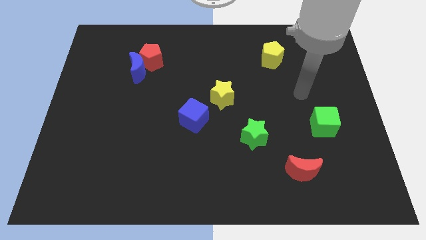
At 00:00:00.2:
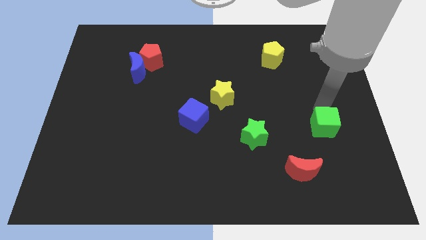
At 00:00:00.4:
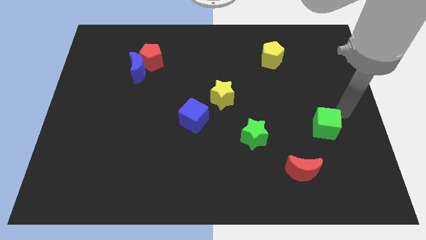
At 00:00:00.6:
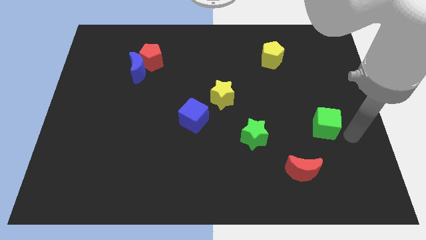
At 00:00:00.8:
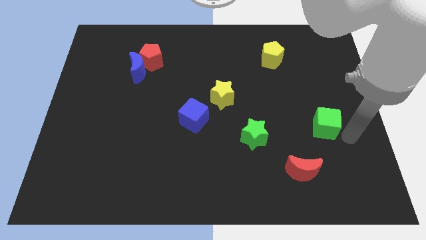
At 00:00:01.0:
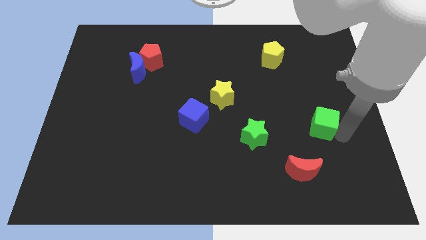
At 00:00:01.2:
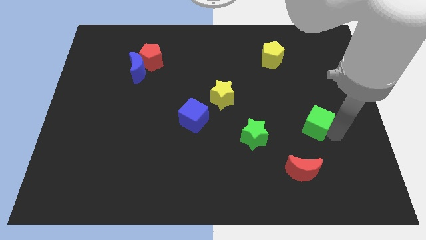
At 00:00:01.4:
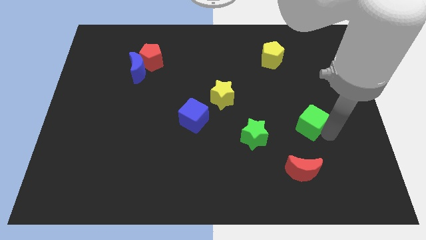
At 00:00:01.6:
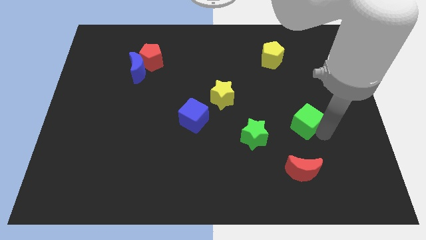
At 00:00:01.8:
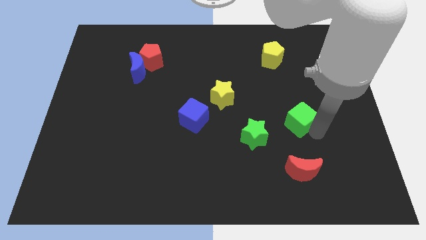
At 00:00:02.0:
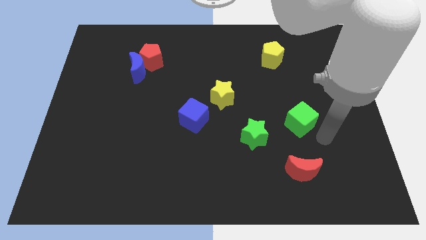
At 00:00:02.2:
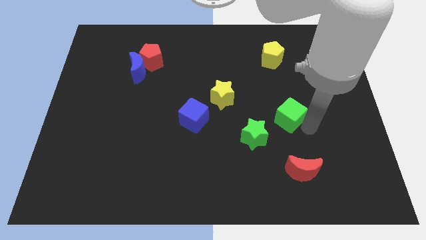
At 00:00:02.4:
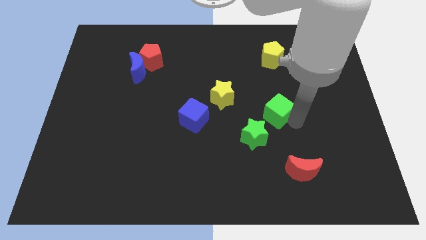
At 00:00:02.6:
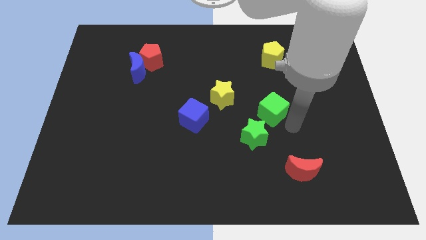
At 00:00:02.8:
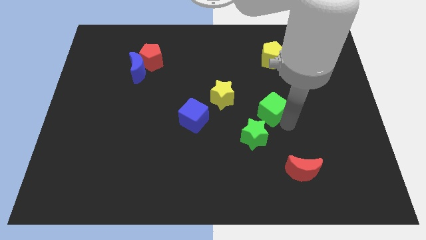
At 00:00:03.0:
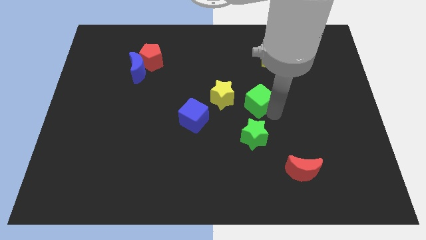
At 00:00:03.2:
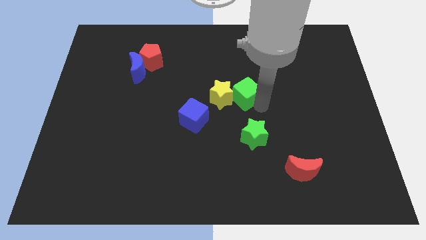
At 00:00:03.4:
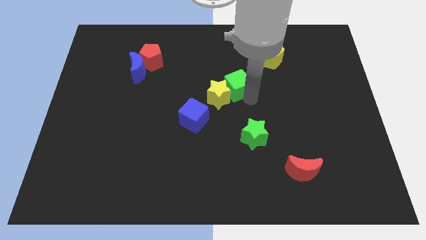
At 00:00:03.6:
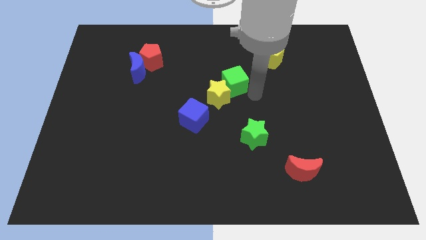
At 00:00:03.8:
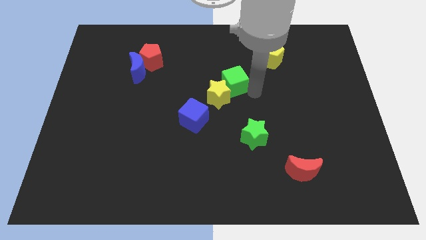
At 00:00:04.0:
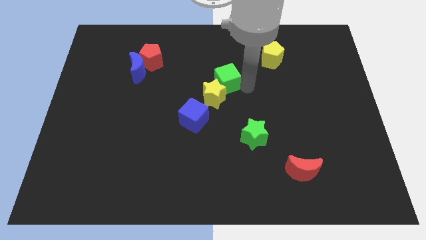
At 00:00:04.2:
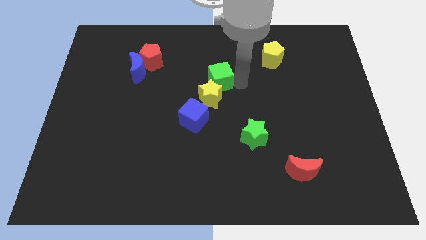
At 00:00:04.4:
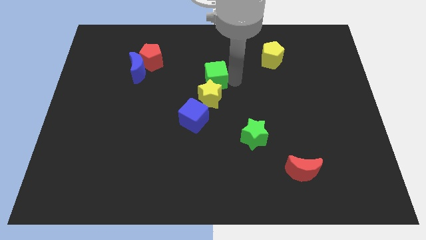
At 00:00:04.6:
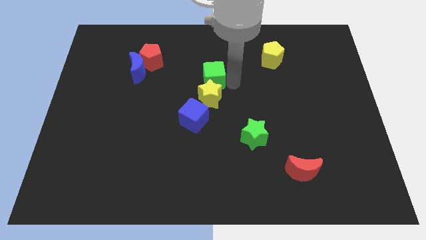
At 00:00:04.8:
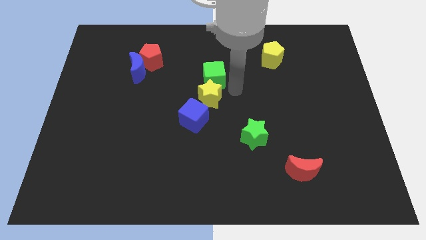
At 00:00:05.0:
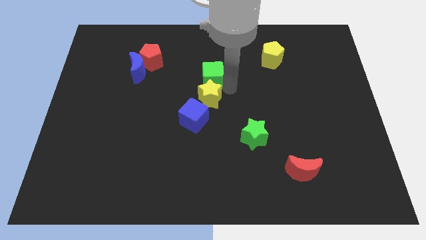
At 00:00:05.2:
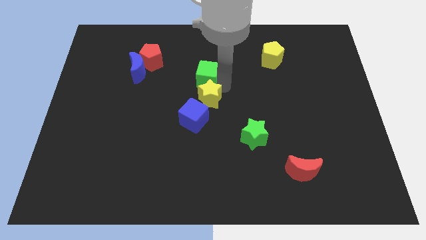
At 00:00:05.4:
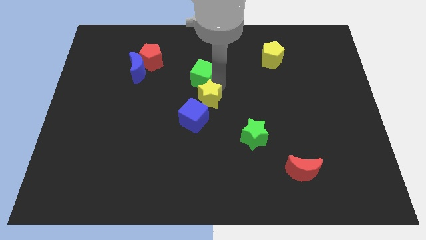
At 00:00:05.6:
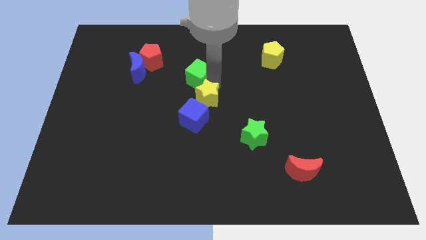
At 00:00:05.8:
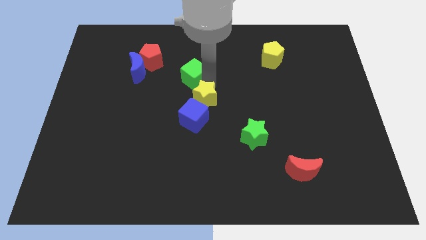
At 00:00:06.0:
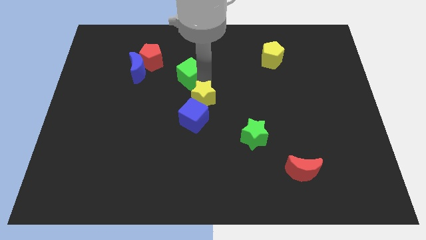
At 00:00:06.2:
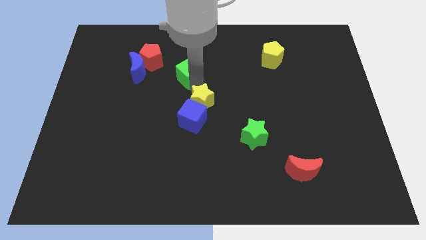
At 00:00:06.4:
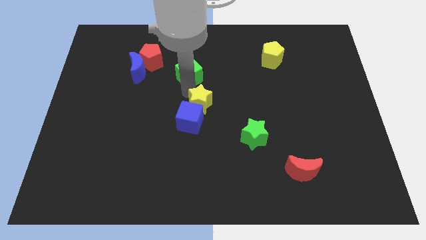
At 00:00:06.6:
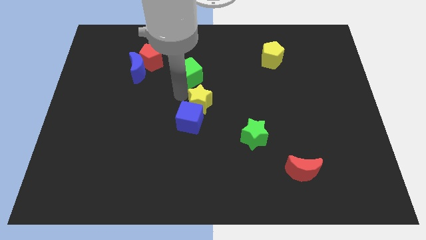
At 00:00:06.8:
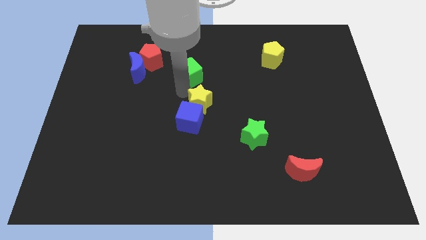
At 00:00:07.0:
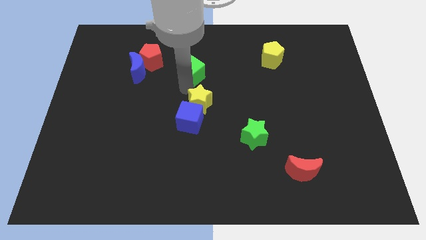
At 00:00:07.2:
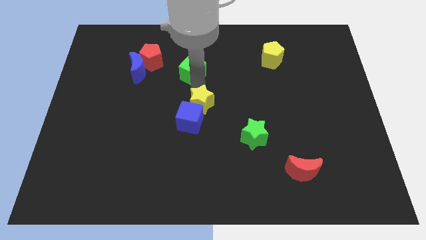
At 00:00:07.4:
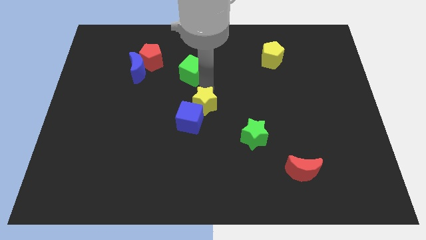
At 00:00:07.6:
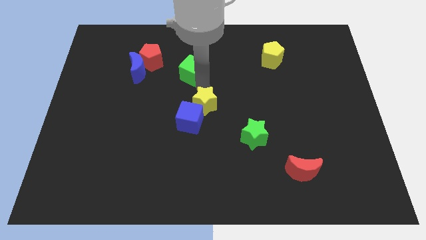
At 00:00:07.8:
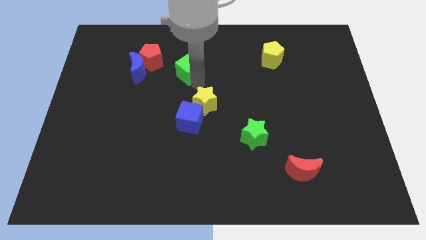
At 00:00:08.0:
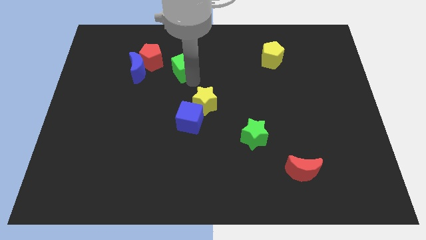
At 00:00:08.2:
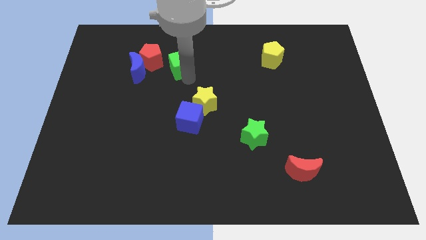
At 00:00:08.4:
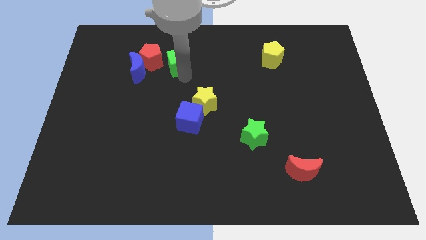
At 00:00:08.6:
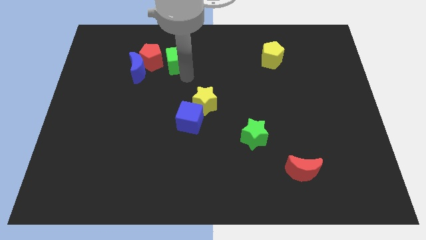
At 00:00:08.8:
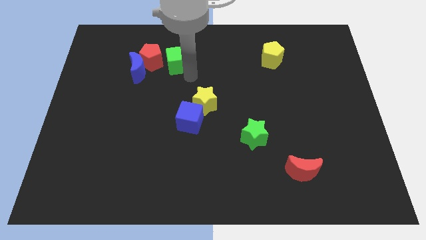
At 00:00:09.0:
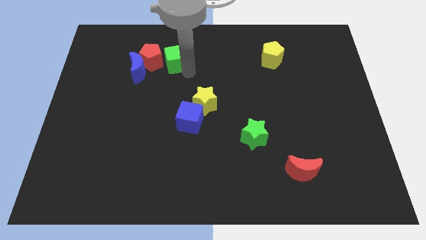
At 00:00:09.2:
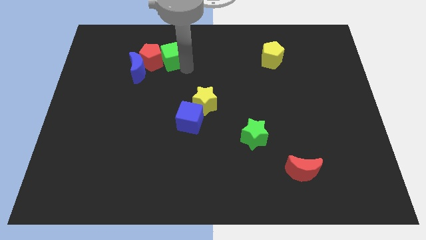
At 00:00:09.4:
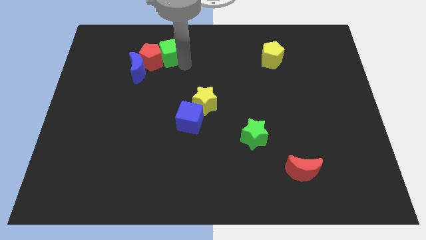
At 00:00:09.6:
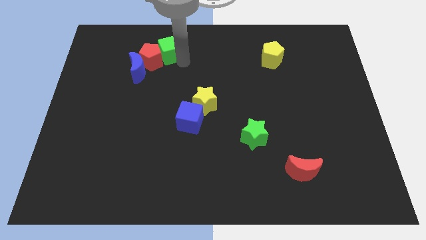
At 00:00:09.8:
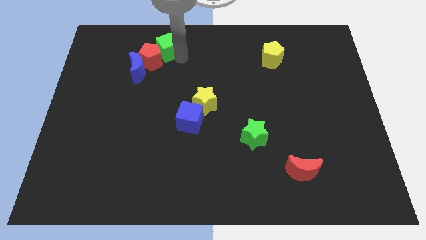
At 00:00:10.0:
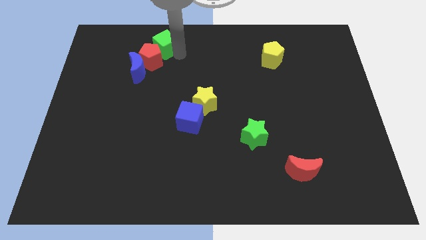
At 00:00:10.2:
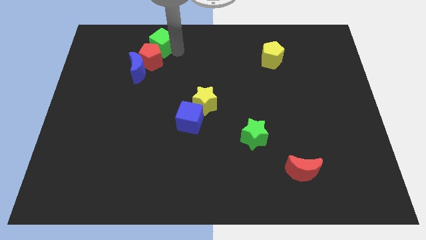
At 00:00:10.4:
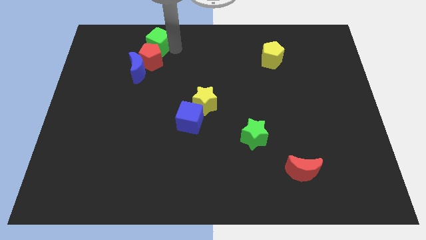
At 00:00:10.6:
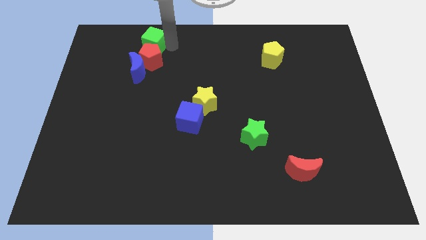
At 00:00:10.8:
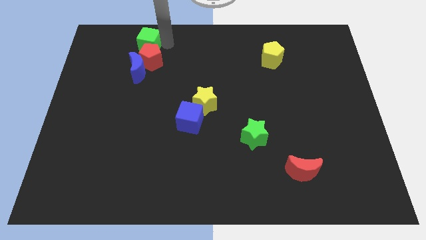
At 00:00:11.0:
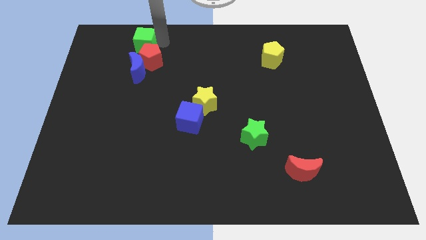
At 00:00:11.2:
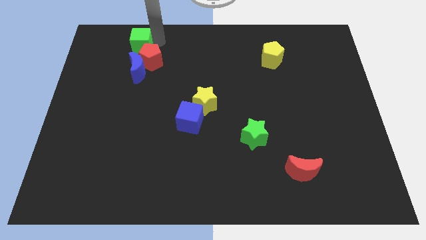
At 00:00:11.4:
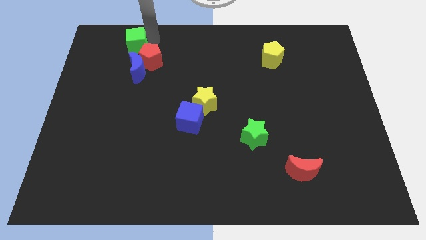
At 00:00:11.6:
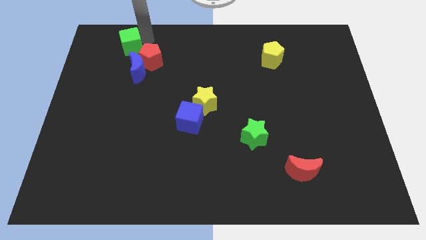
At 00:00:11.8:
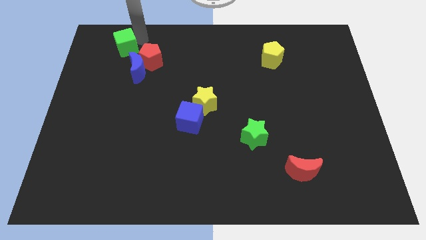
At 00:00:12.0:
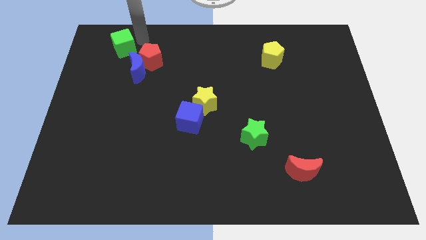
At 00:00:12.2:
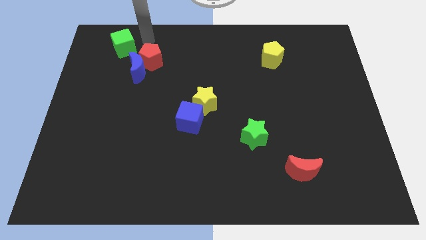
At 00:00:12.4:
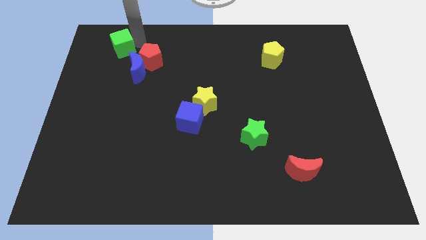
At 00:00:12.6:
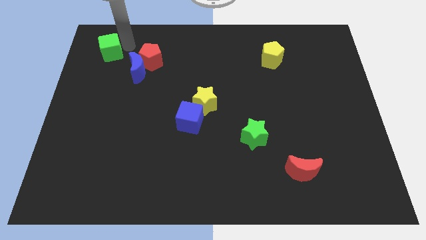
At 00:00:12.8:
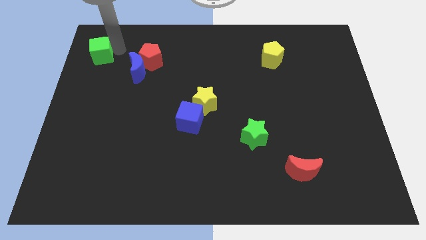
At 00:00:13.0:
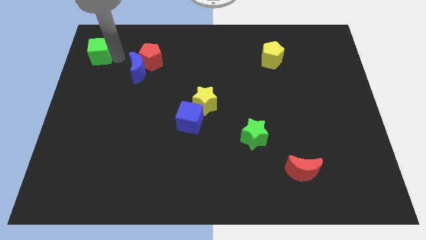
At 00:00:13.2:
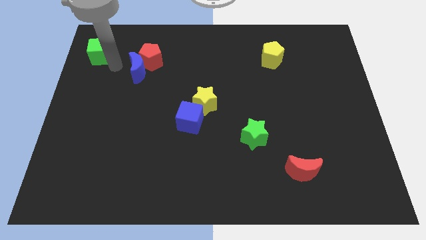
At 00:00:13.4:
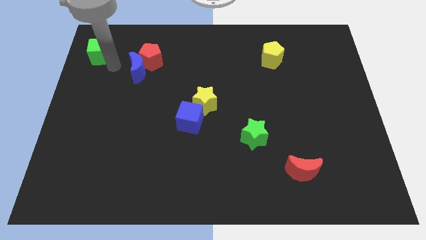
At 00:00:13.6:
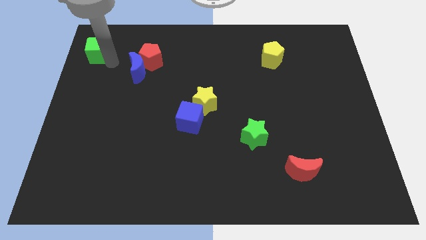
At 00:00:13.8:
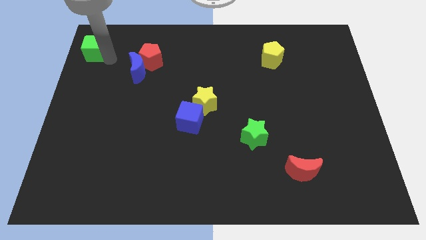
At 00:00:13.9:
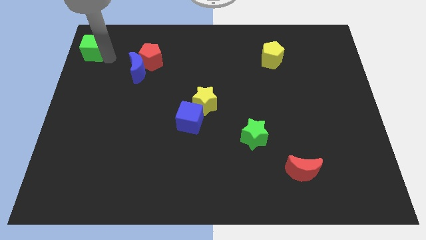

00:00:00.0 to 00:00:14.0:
push the green cube to the top left of the board
